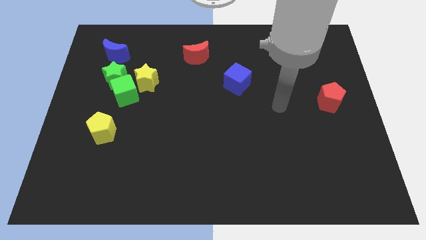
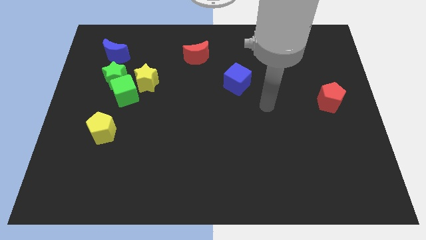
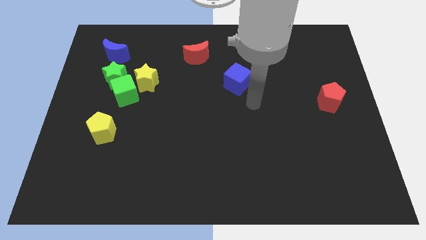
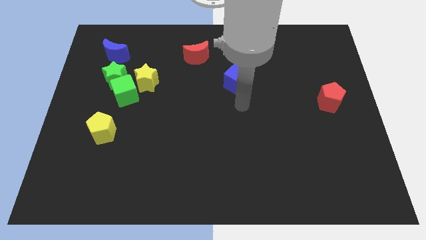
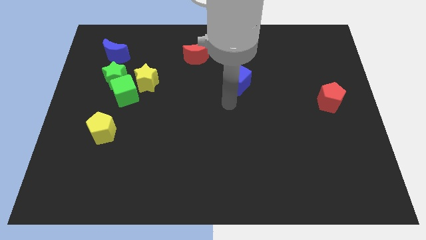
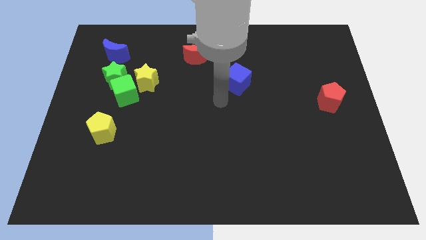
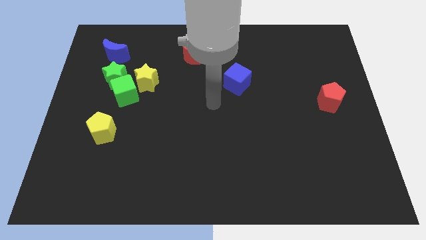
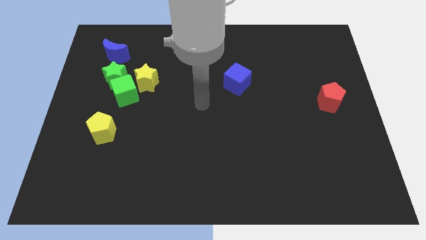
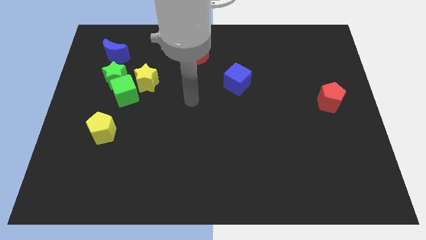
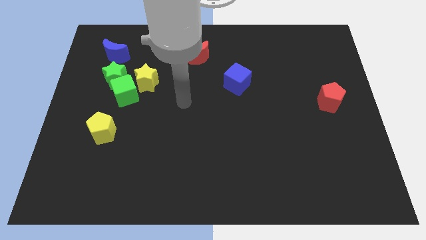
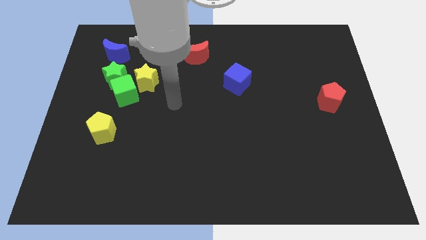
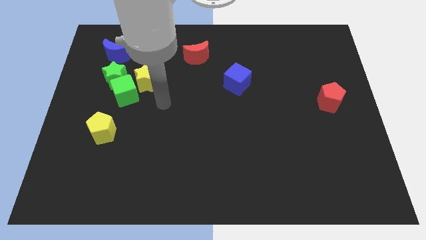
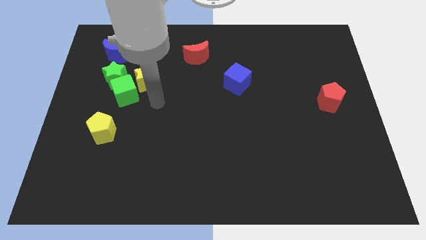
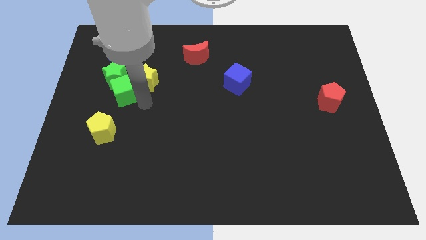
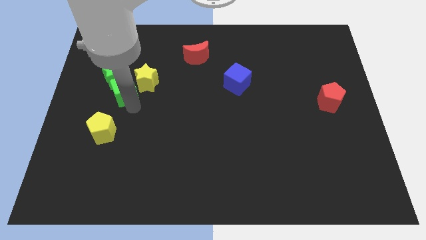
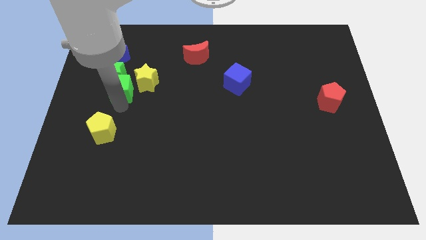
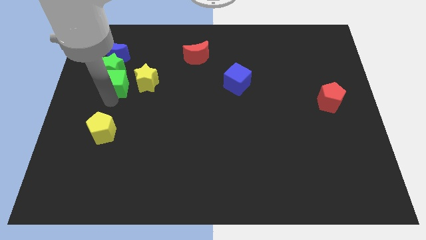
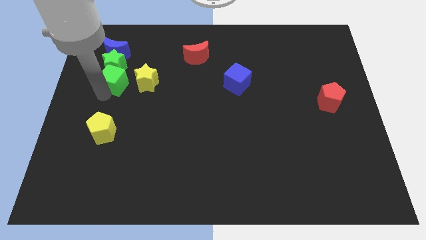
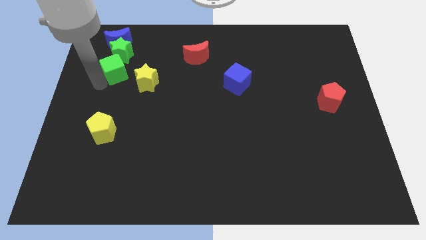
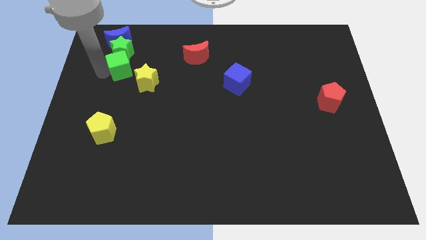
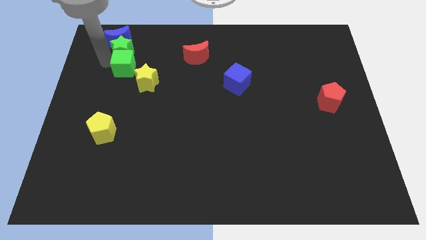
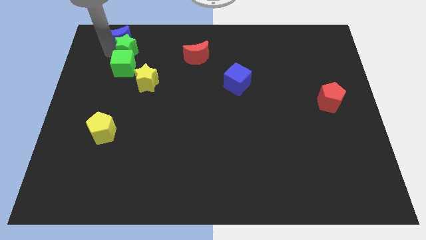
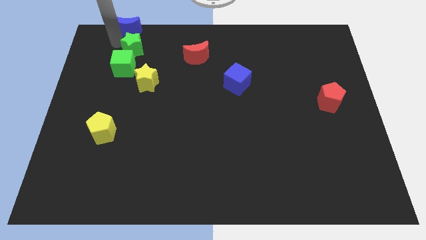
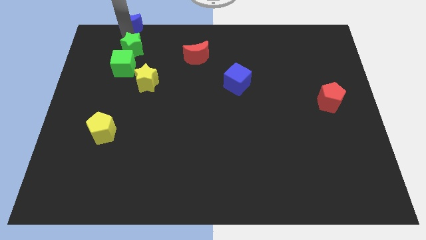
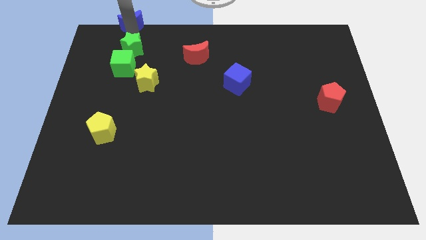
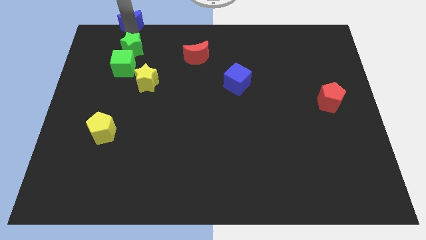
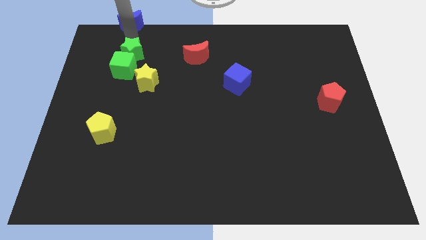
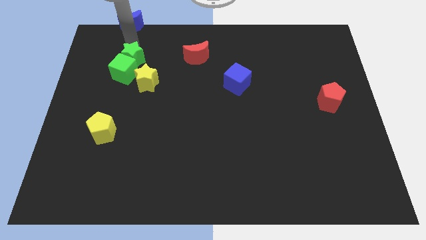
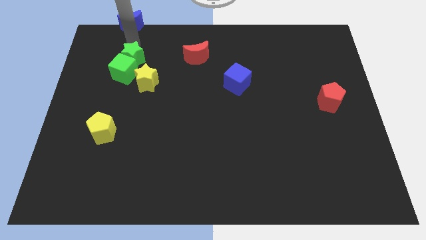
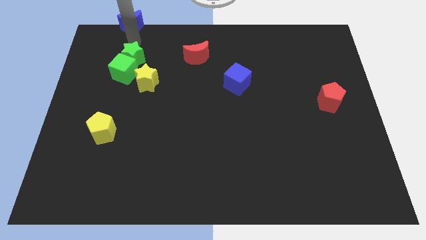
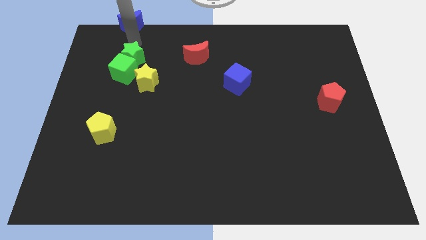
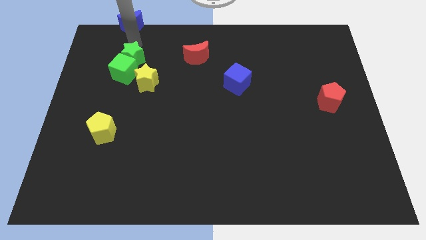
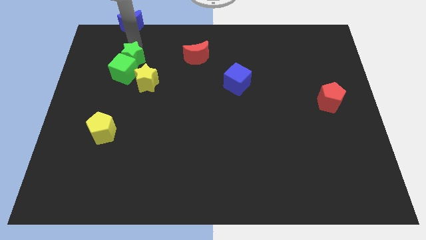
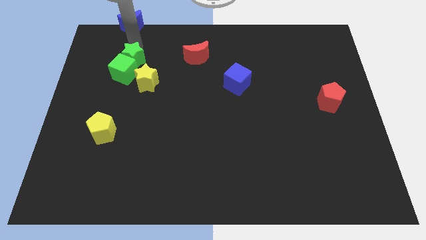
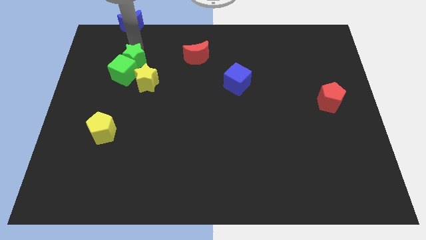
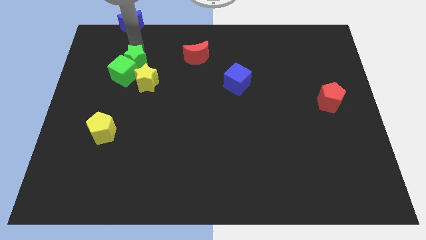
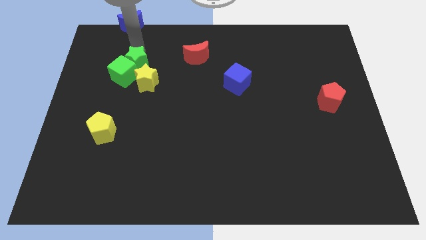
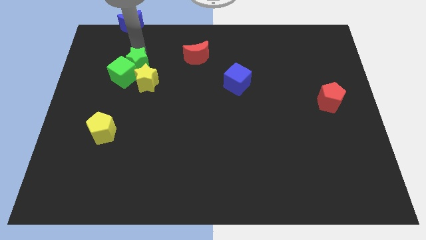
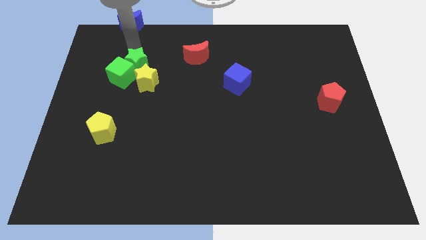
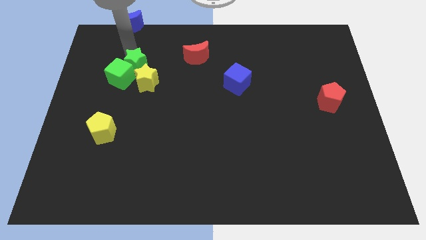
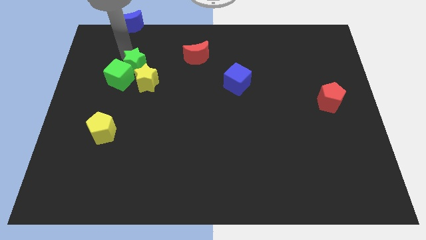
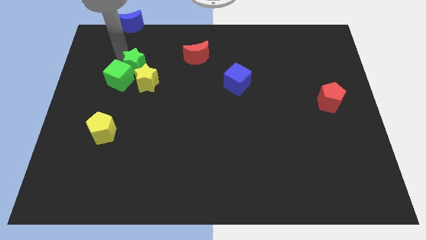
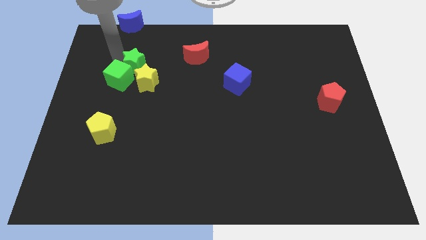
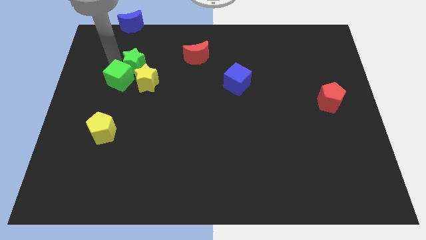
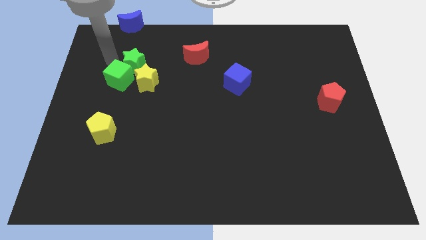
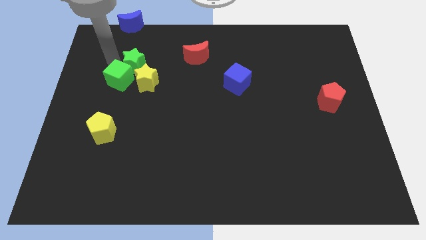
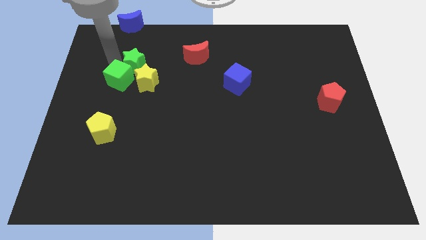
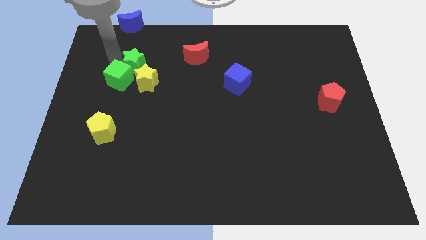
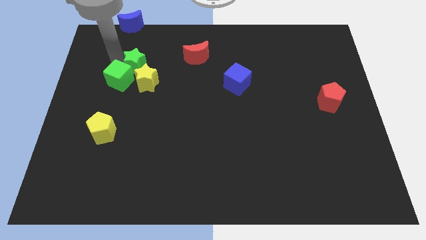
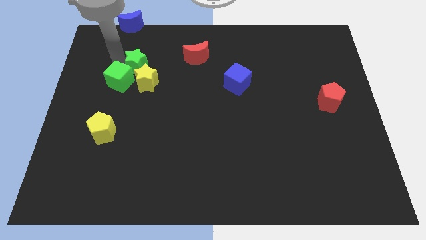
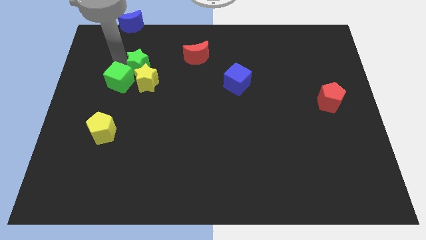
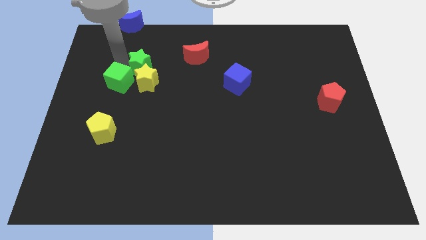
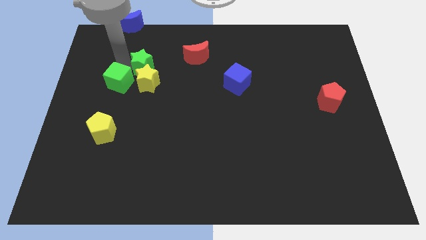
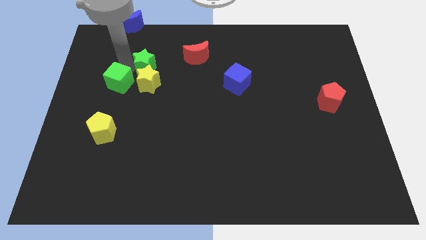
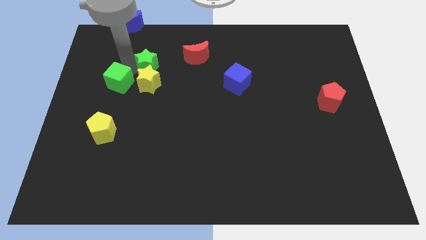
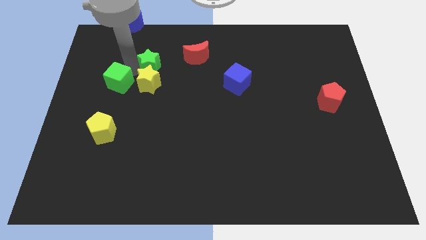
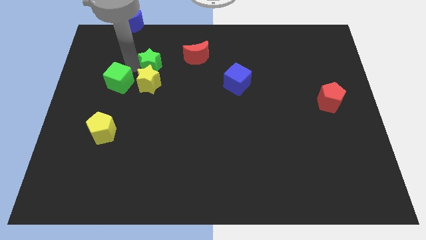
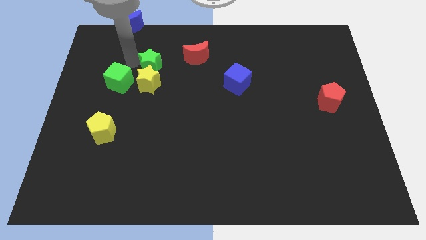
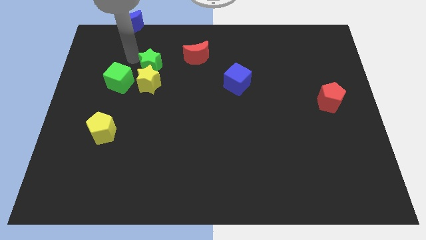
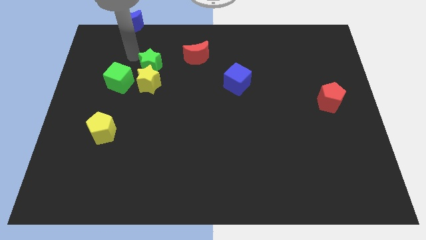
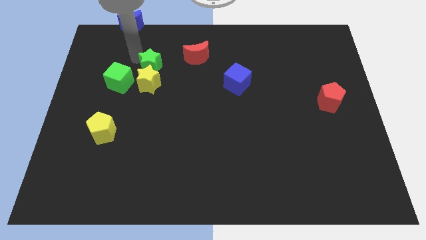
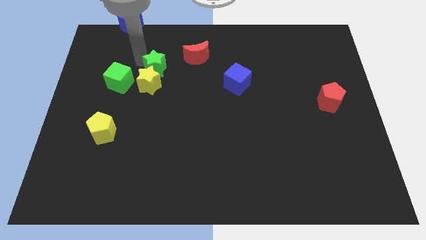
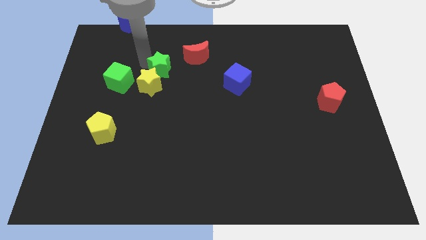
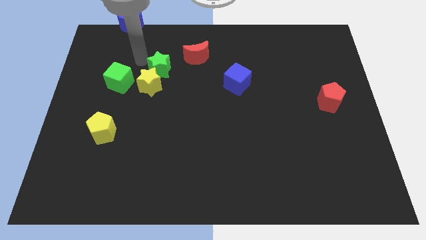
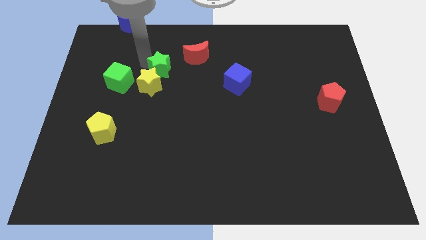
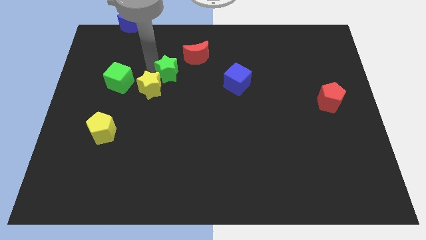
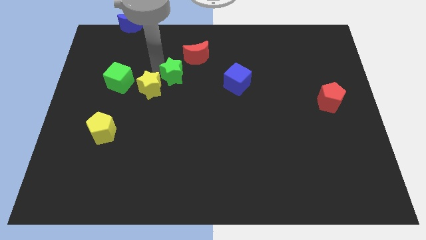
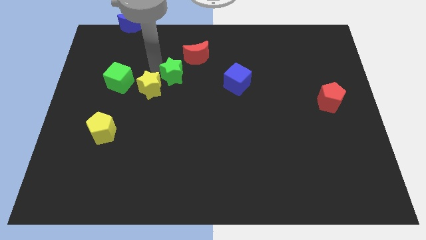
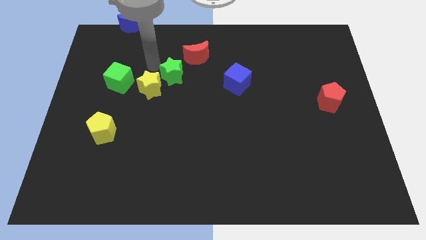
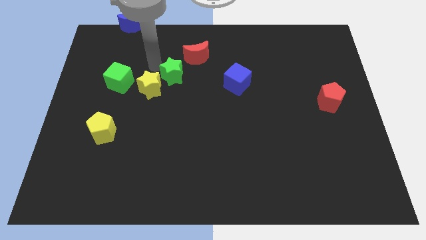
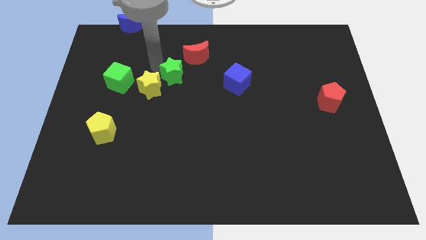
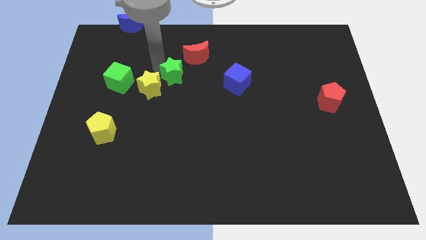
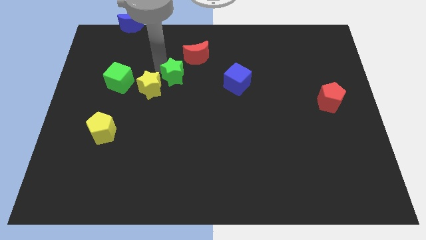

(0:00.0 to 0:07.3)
push the green star to the middle

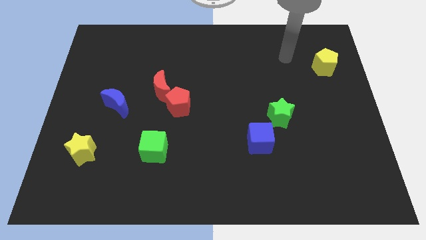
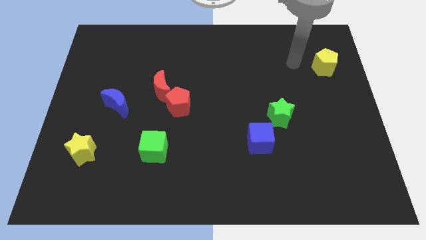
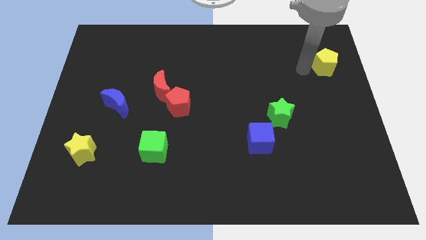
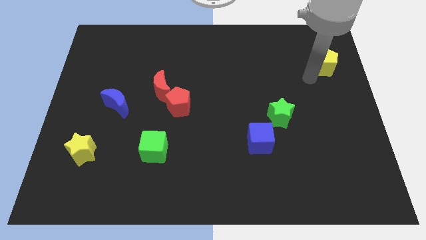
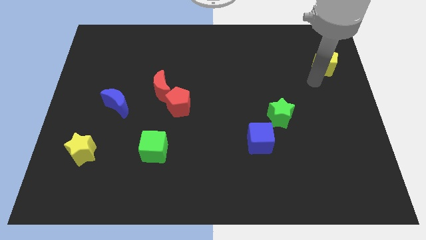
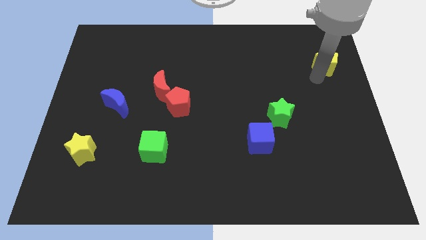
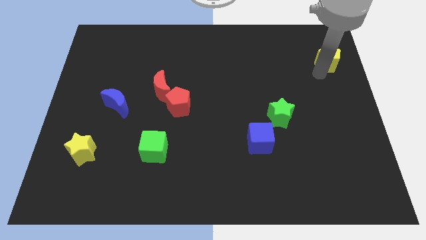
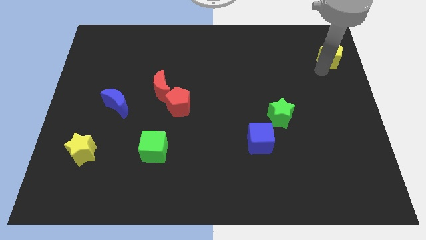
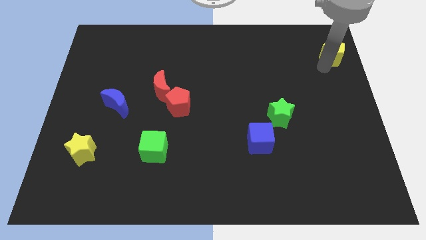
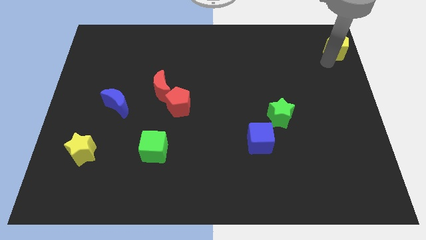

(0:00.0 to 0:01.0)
put the yellow pentagon to the top right corner
